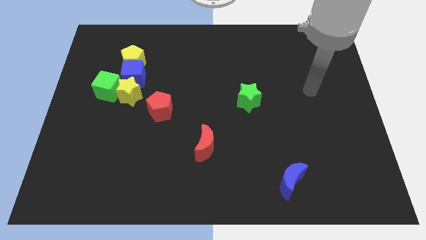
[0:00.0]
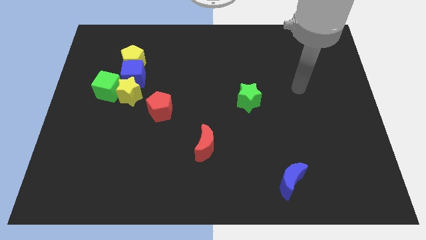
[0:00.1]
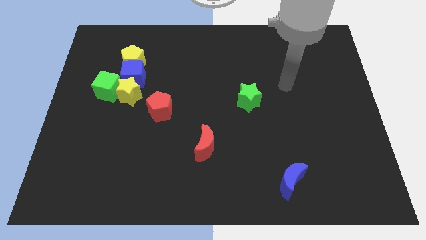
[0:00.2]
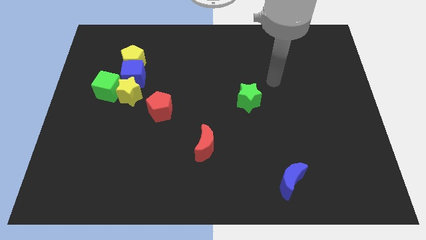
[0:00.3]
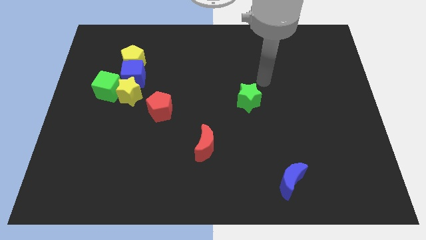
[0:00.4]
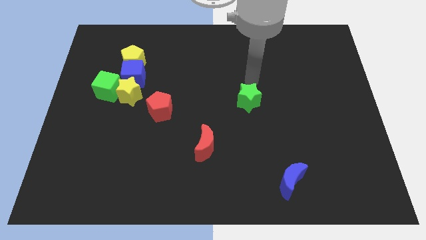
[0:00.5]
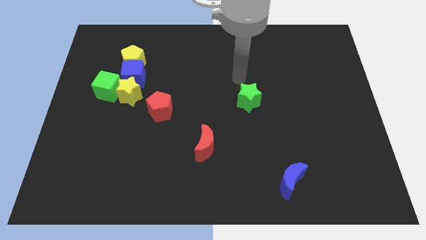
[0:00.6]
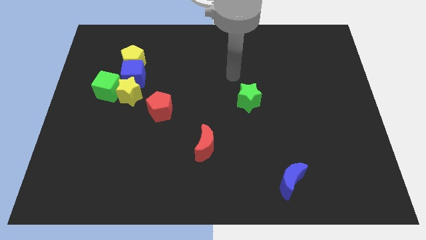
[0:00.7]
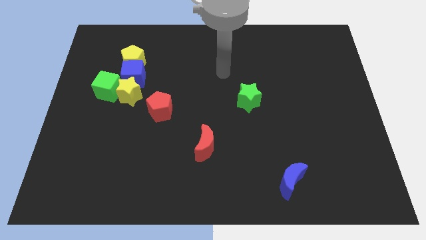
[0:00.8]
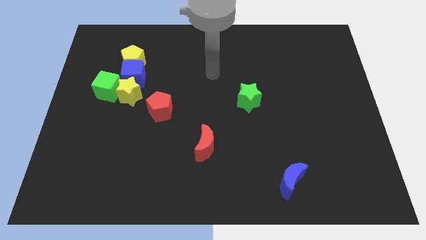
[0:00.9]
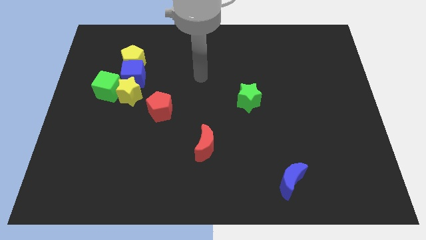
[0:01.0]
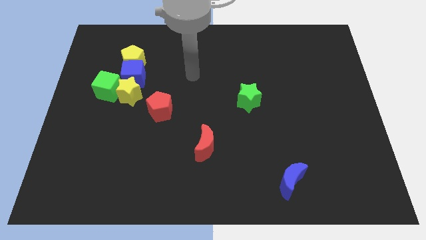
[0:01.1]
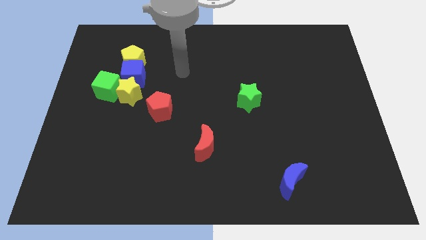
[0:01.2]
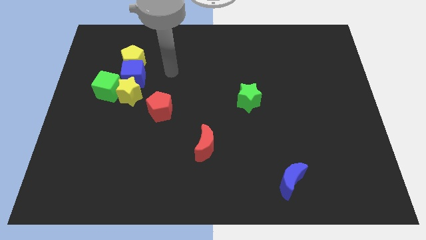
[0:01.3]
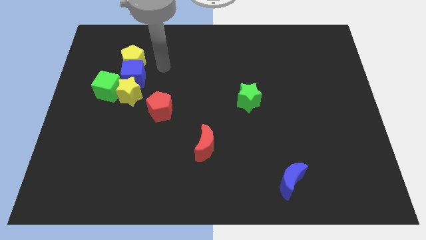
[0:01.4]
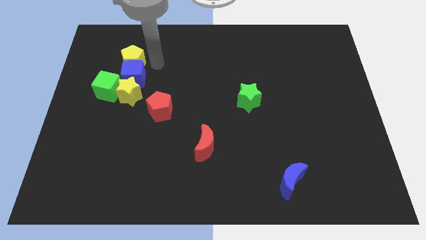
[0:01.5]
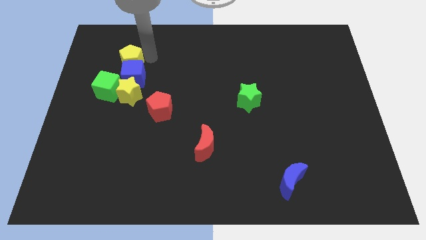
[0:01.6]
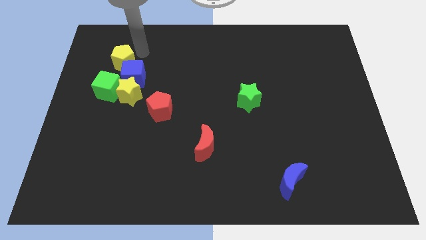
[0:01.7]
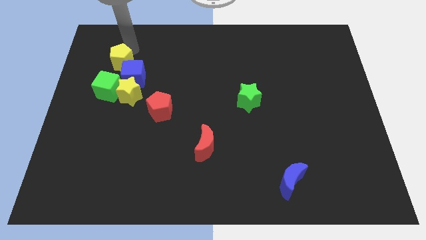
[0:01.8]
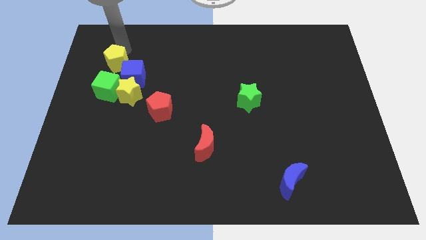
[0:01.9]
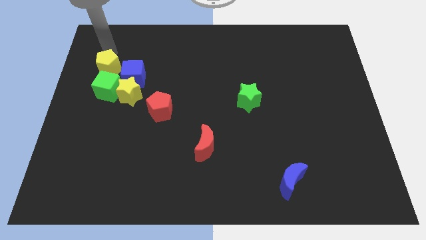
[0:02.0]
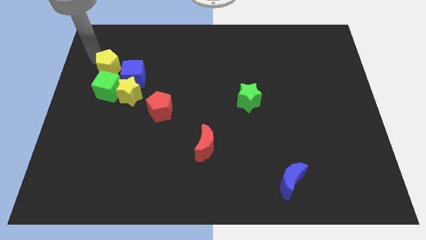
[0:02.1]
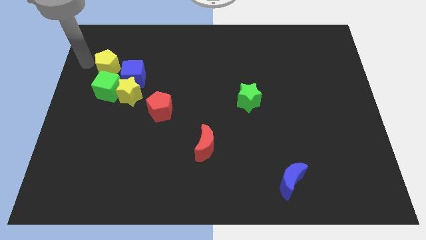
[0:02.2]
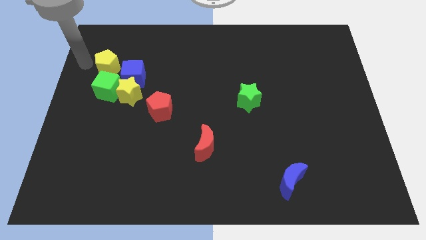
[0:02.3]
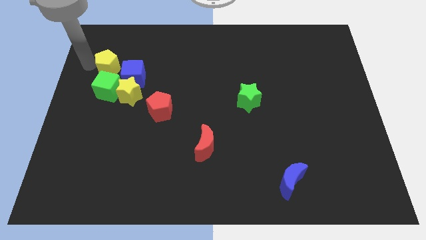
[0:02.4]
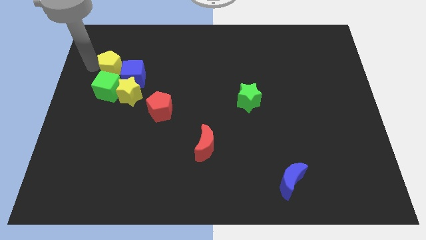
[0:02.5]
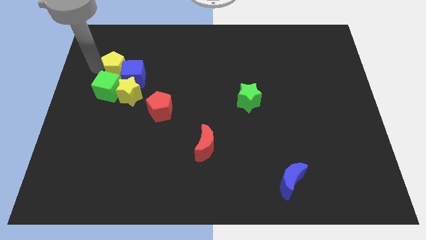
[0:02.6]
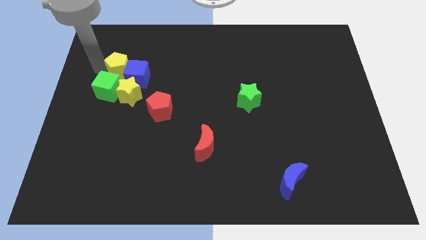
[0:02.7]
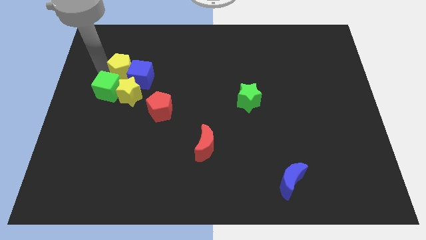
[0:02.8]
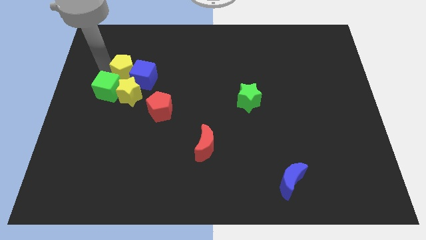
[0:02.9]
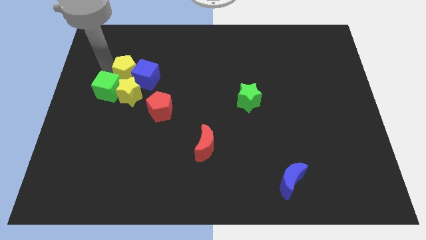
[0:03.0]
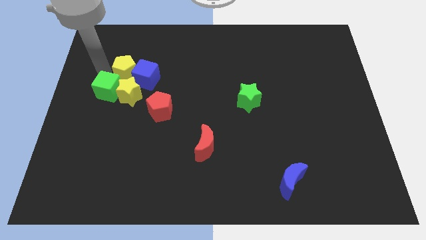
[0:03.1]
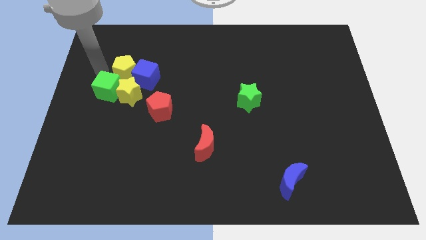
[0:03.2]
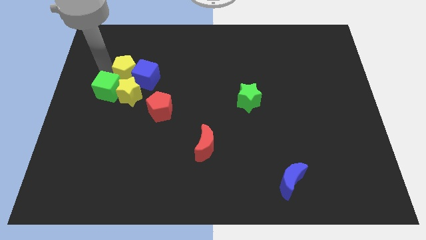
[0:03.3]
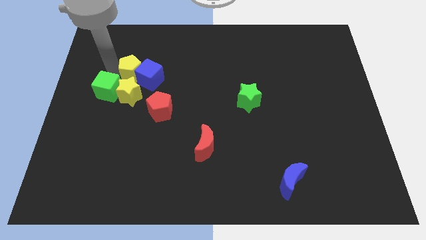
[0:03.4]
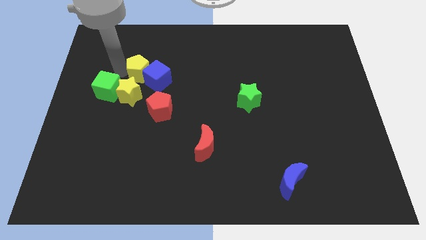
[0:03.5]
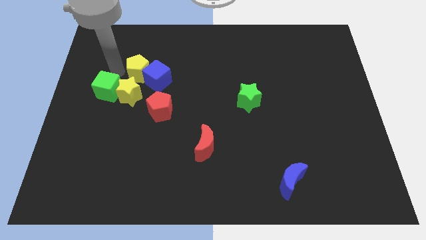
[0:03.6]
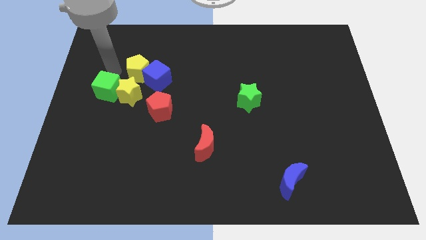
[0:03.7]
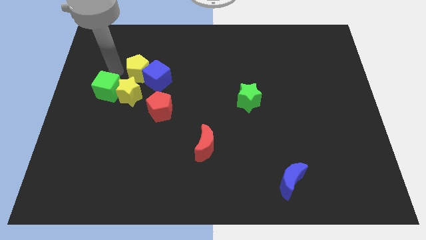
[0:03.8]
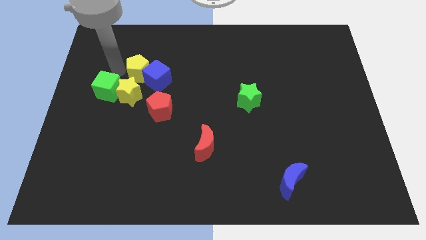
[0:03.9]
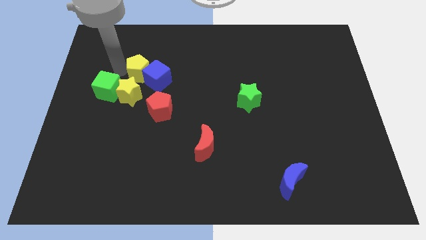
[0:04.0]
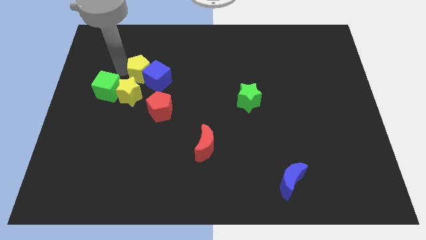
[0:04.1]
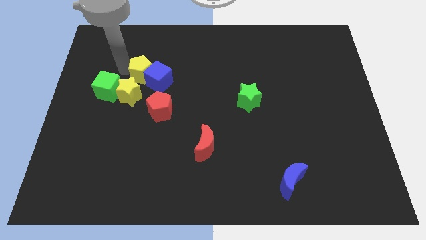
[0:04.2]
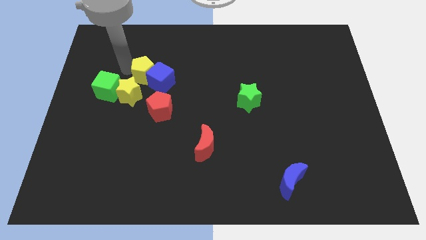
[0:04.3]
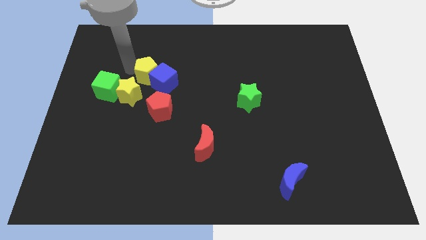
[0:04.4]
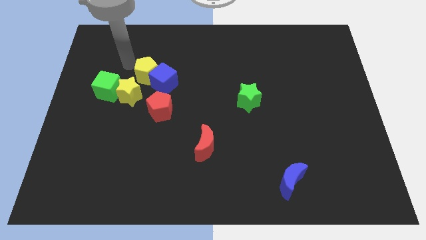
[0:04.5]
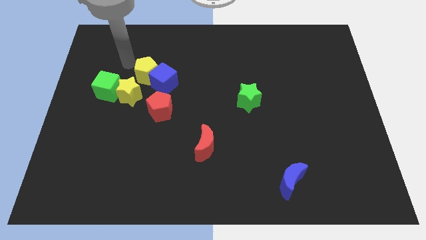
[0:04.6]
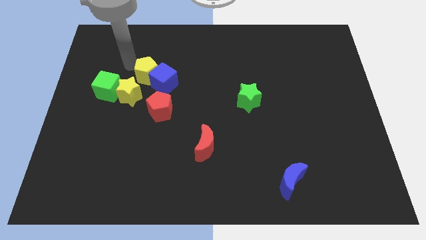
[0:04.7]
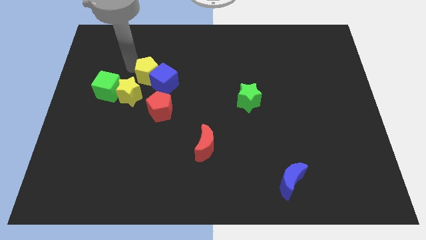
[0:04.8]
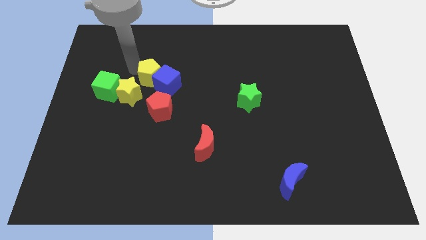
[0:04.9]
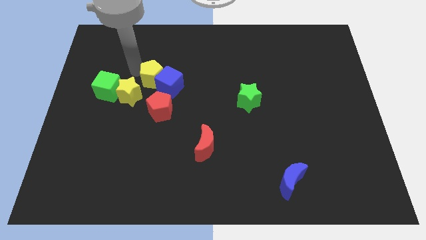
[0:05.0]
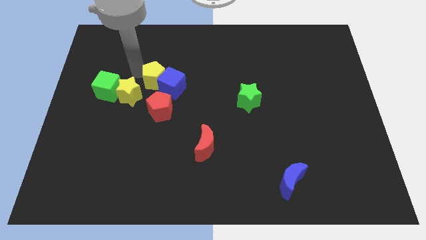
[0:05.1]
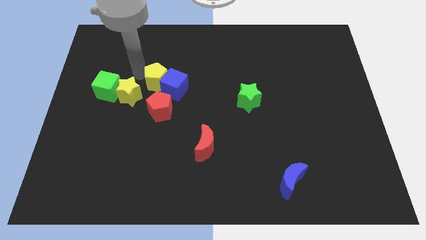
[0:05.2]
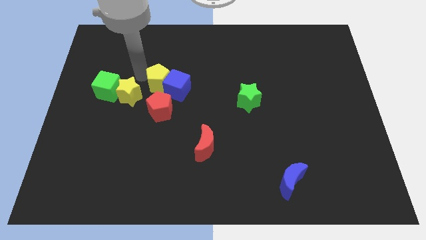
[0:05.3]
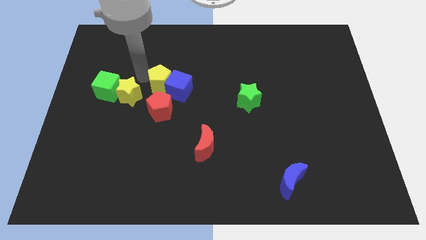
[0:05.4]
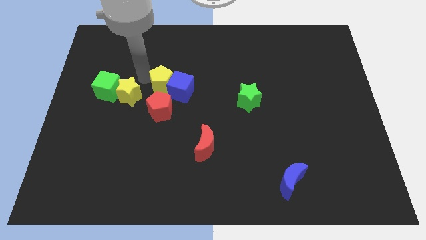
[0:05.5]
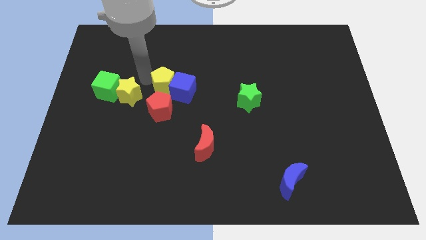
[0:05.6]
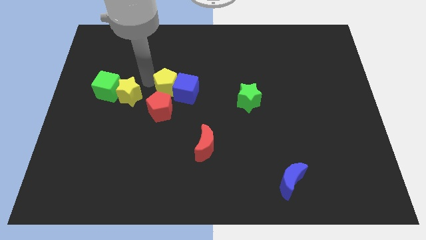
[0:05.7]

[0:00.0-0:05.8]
slide the yellow pentagon to the middle

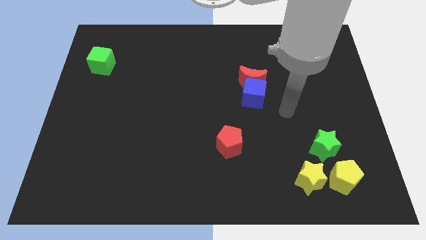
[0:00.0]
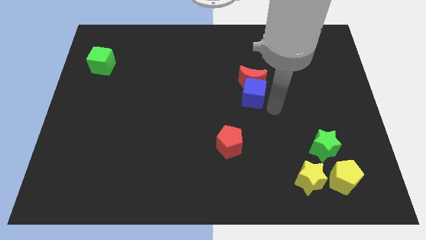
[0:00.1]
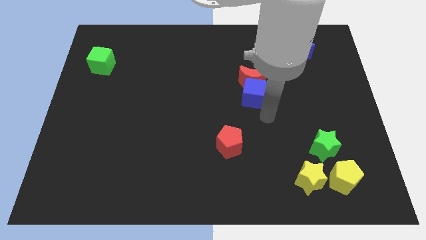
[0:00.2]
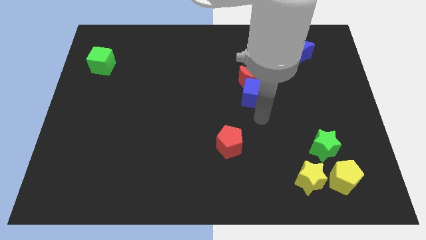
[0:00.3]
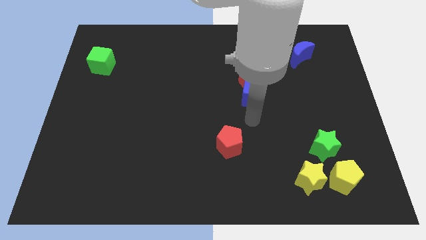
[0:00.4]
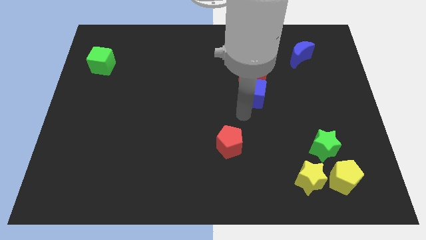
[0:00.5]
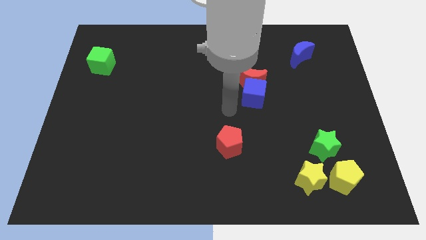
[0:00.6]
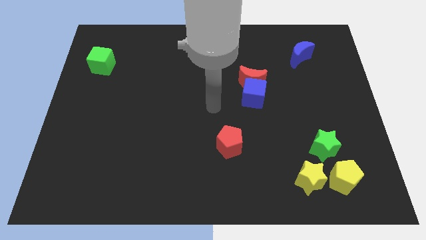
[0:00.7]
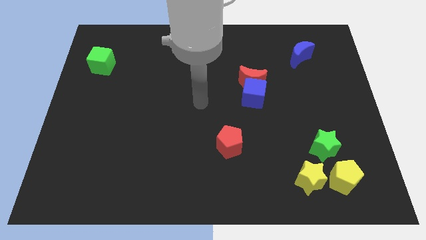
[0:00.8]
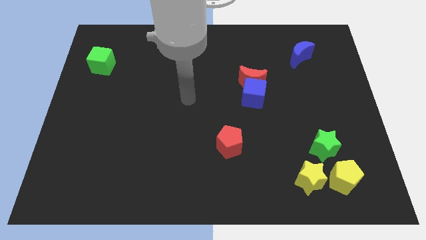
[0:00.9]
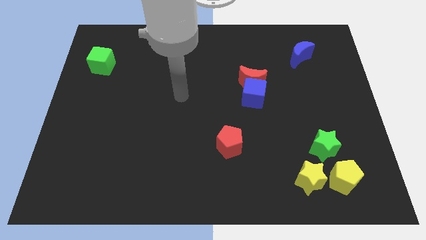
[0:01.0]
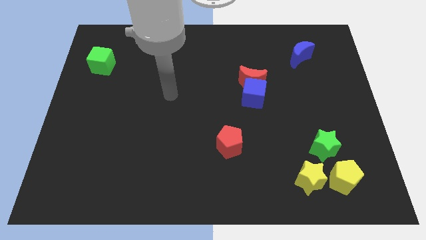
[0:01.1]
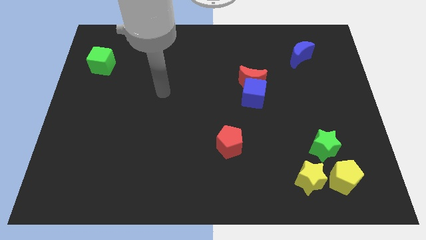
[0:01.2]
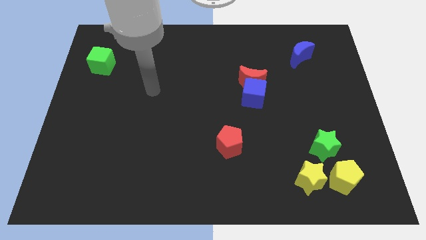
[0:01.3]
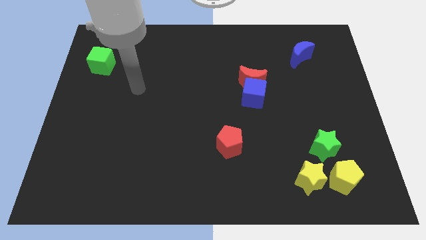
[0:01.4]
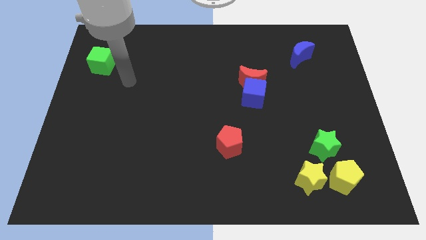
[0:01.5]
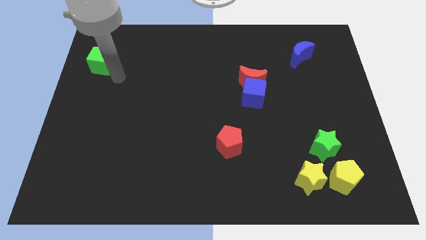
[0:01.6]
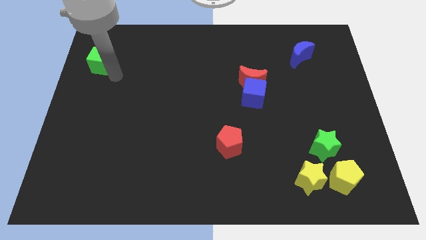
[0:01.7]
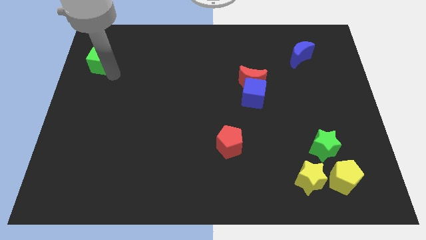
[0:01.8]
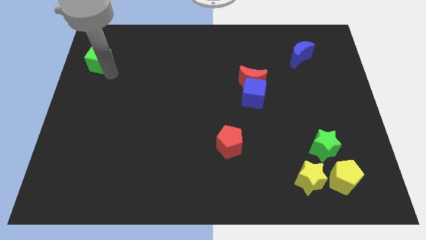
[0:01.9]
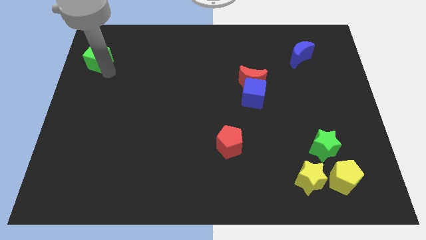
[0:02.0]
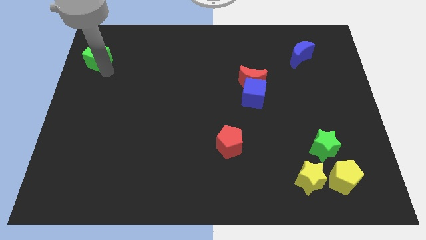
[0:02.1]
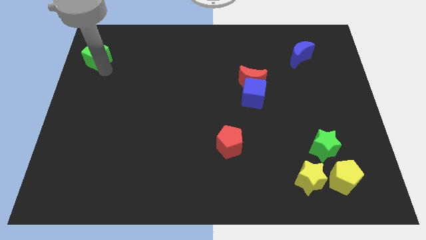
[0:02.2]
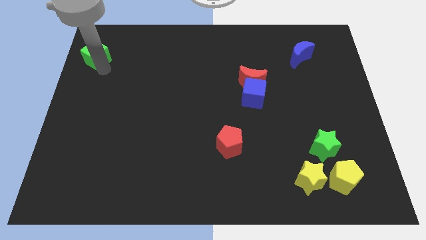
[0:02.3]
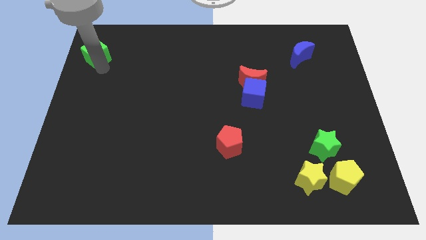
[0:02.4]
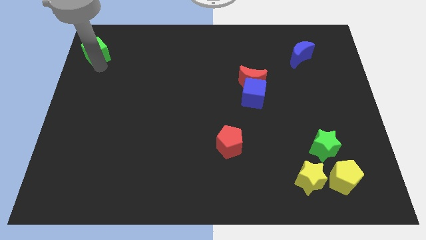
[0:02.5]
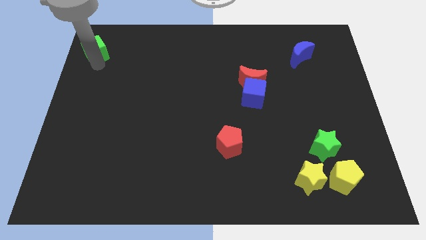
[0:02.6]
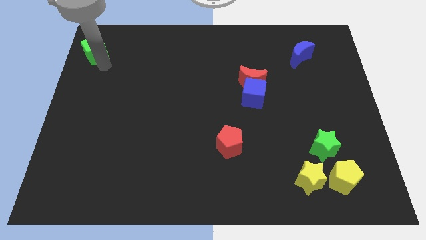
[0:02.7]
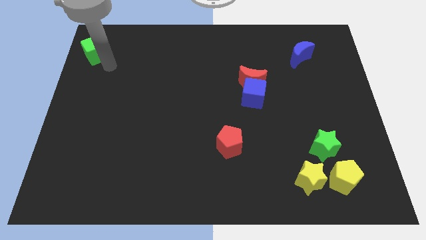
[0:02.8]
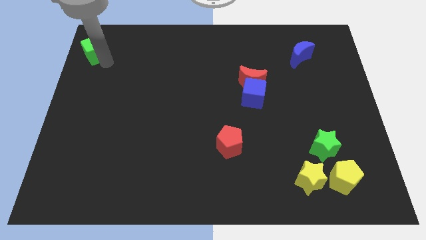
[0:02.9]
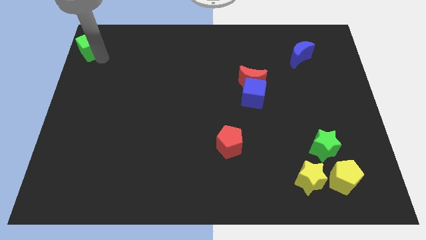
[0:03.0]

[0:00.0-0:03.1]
slide the green cube to the top left of the board
